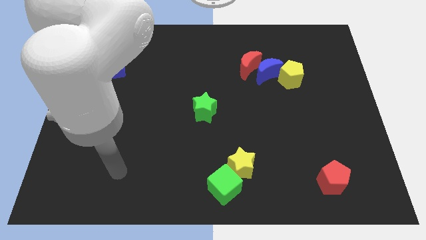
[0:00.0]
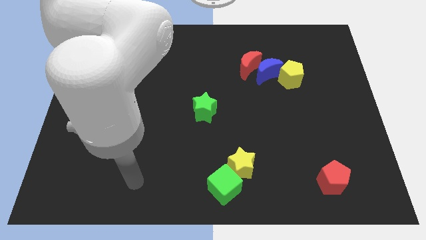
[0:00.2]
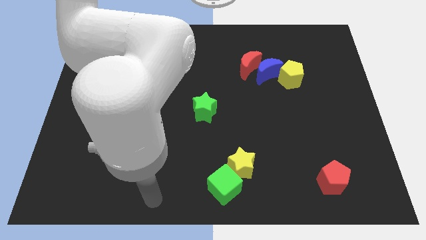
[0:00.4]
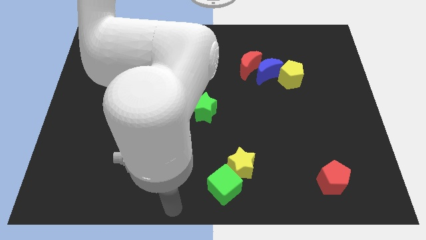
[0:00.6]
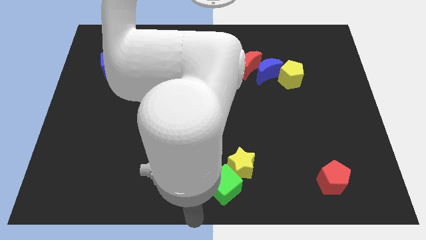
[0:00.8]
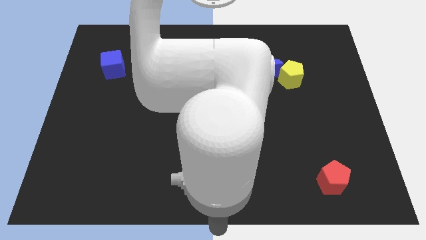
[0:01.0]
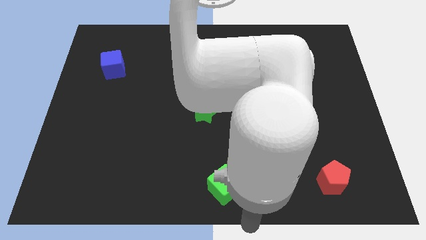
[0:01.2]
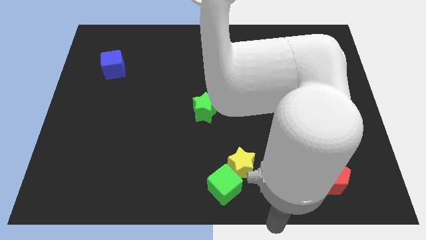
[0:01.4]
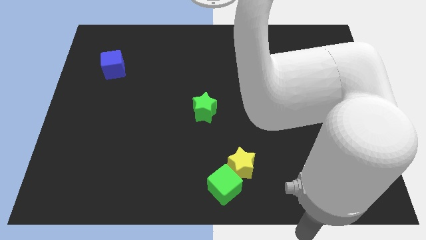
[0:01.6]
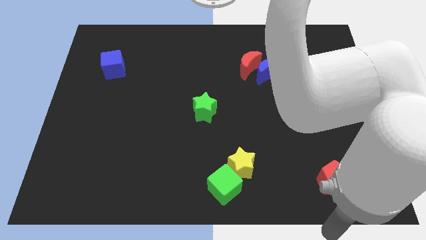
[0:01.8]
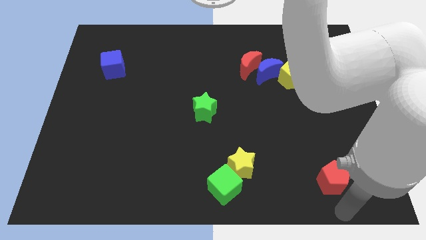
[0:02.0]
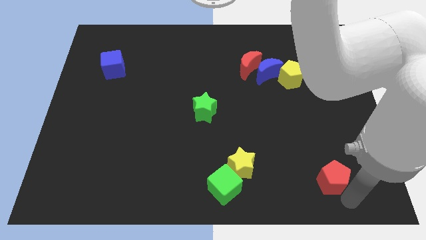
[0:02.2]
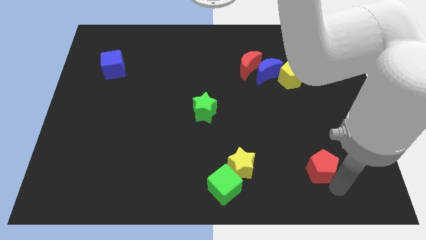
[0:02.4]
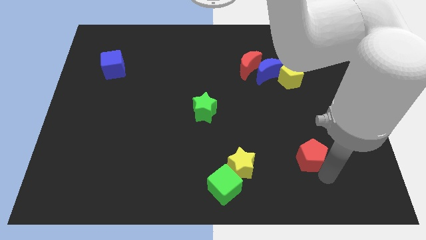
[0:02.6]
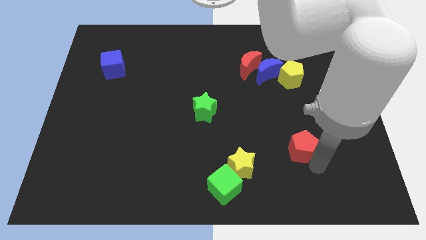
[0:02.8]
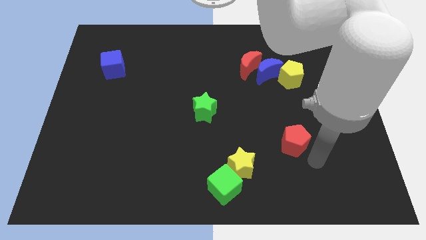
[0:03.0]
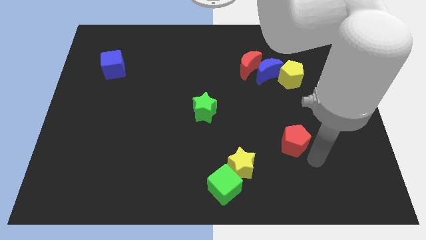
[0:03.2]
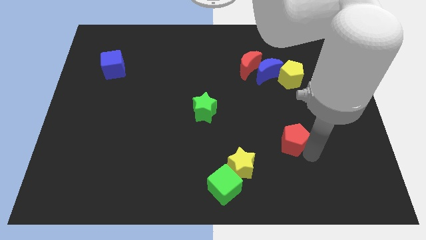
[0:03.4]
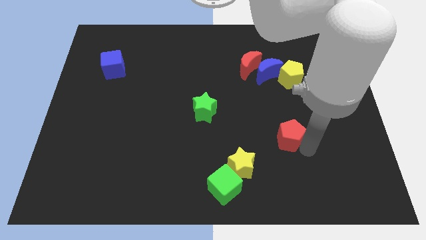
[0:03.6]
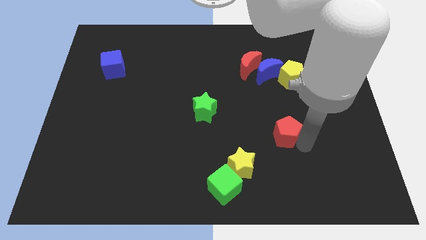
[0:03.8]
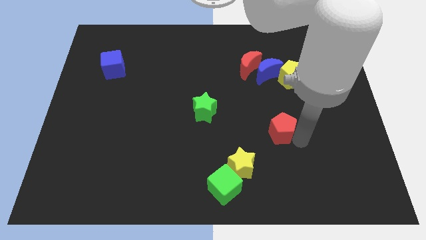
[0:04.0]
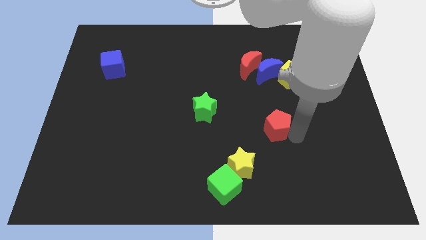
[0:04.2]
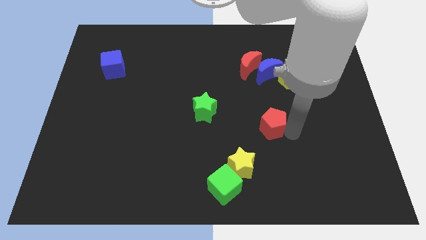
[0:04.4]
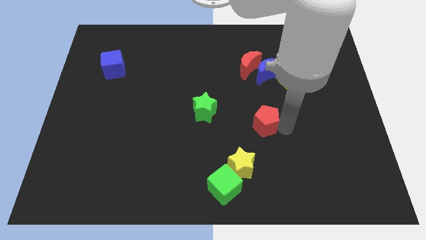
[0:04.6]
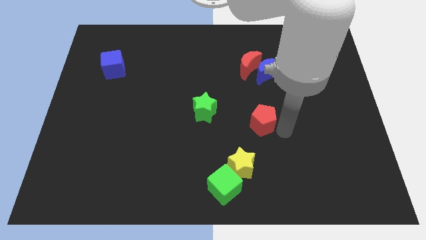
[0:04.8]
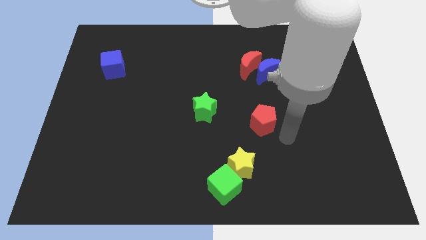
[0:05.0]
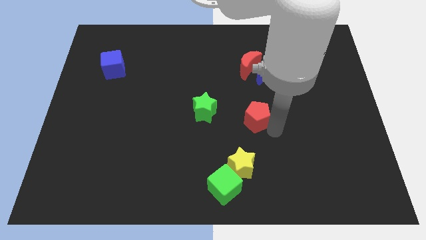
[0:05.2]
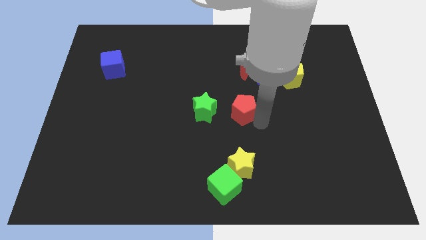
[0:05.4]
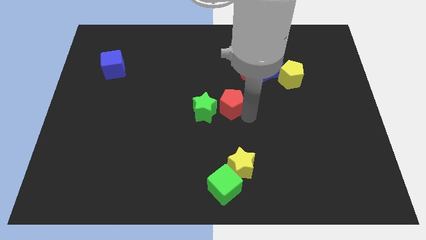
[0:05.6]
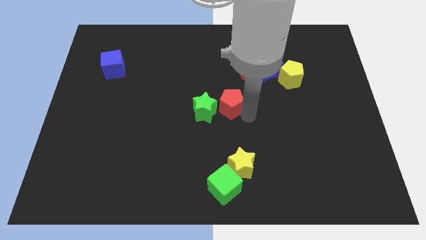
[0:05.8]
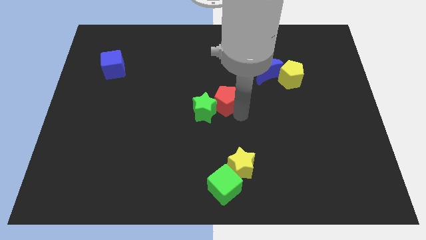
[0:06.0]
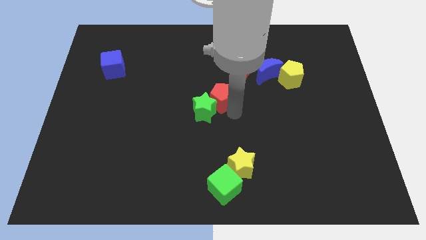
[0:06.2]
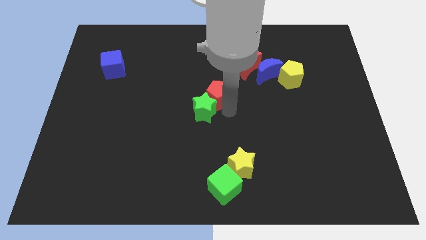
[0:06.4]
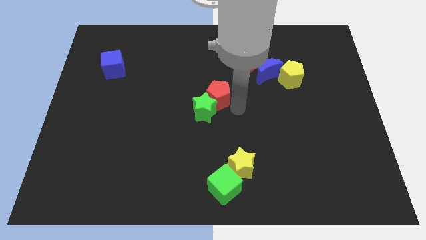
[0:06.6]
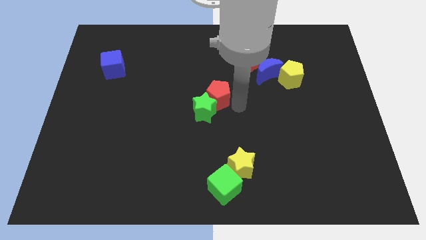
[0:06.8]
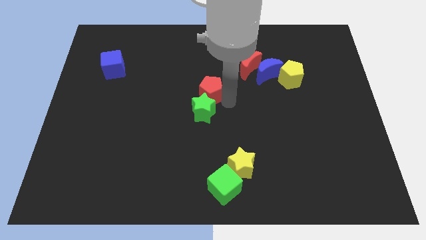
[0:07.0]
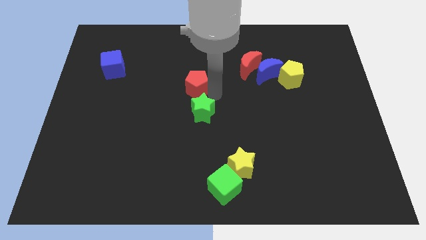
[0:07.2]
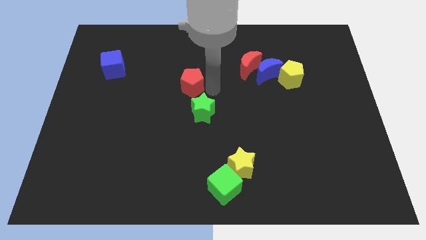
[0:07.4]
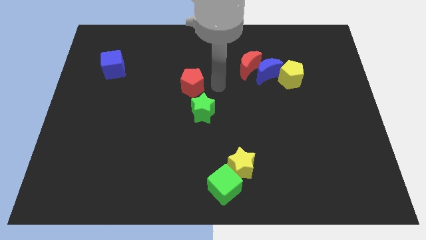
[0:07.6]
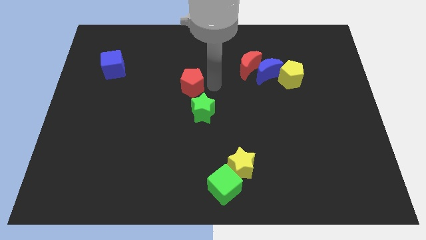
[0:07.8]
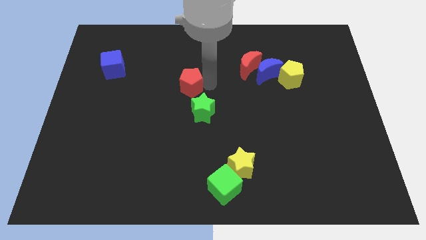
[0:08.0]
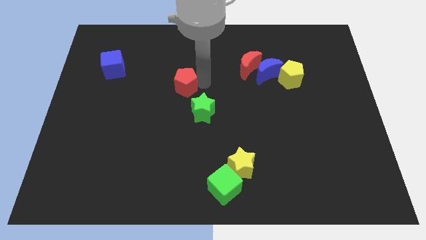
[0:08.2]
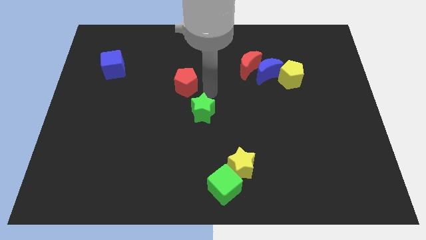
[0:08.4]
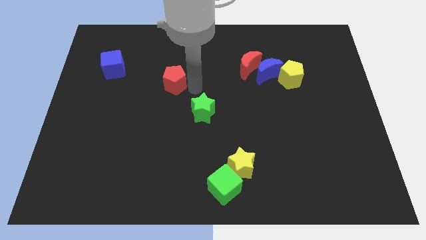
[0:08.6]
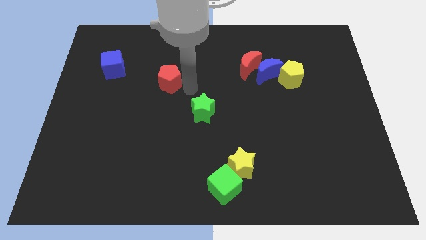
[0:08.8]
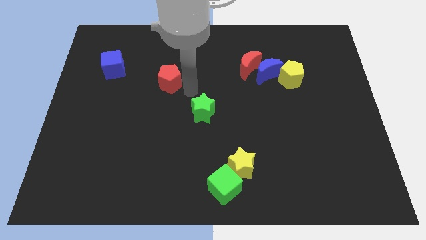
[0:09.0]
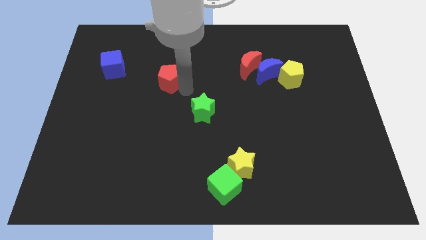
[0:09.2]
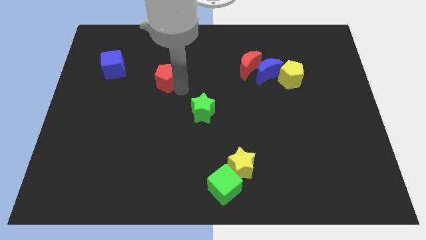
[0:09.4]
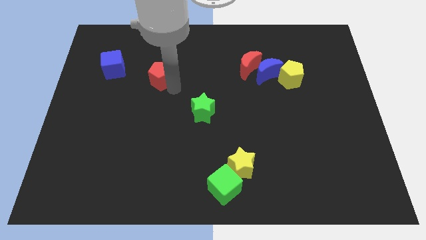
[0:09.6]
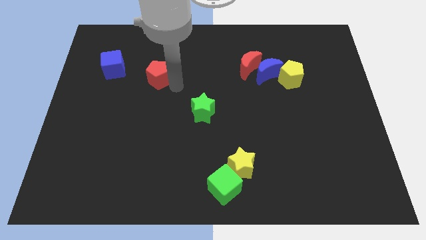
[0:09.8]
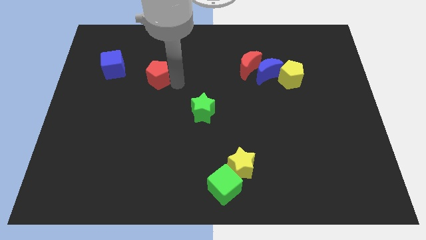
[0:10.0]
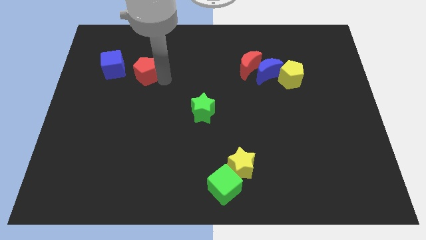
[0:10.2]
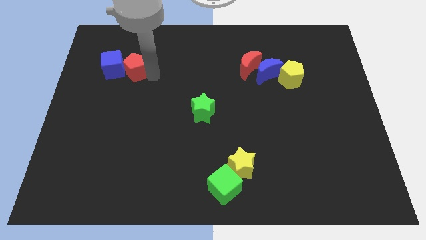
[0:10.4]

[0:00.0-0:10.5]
move the red pentagon next to the blue cube

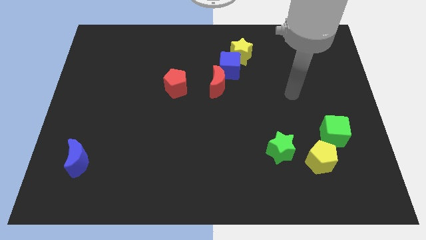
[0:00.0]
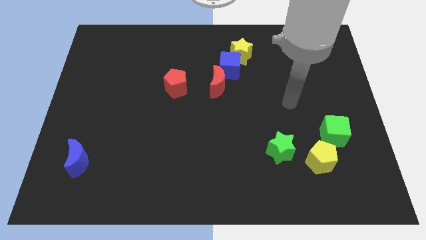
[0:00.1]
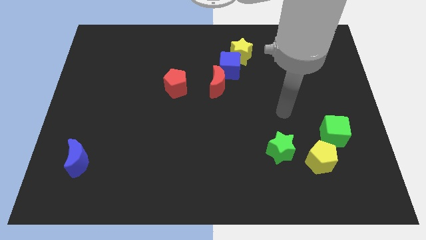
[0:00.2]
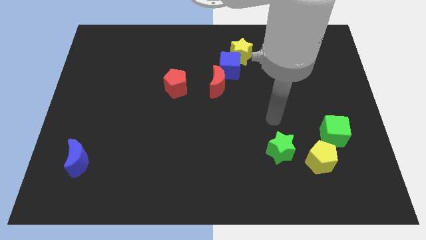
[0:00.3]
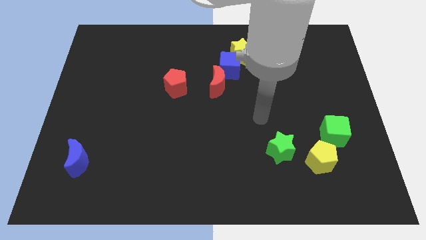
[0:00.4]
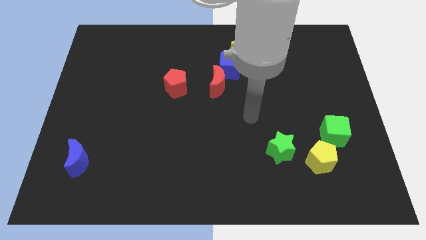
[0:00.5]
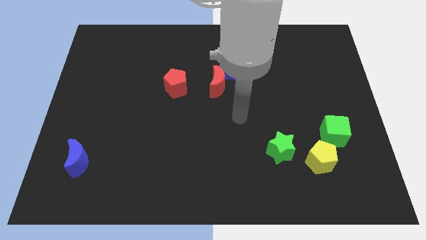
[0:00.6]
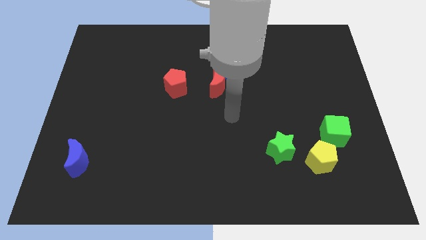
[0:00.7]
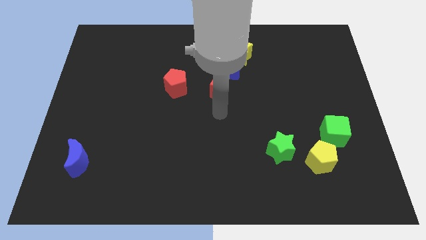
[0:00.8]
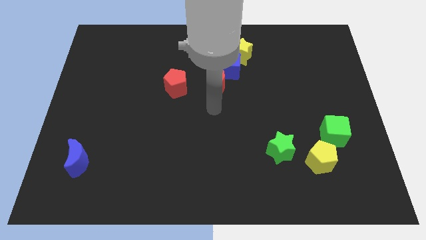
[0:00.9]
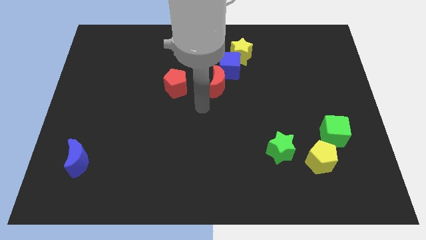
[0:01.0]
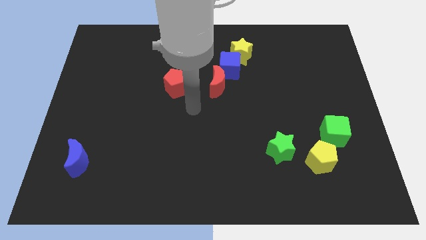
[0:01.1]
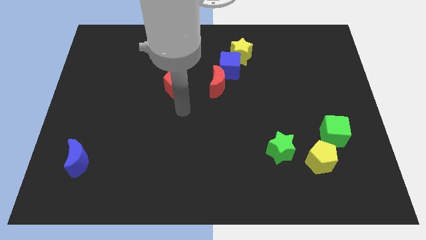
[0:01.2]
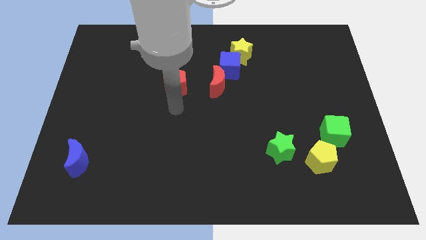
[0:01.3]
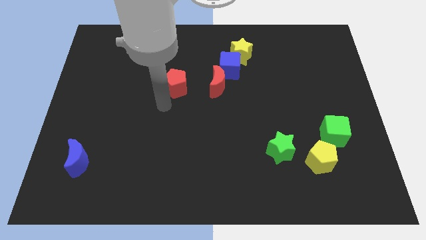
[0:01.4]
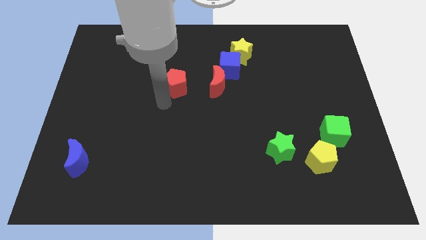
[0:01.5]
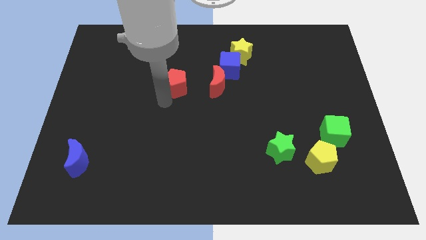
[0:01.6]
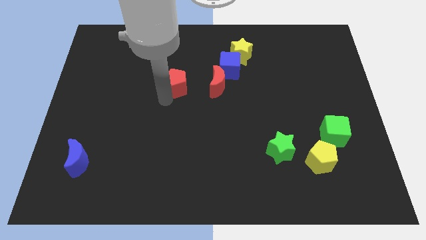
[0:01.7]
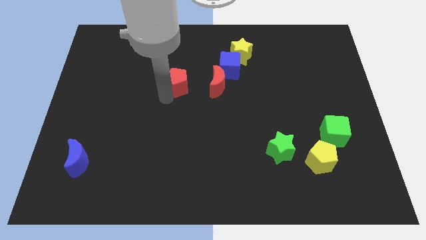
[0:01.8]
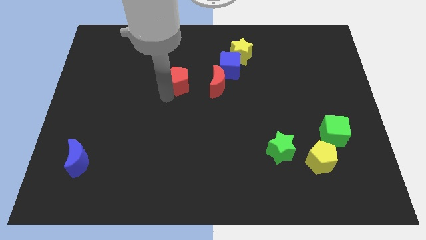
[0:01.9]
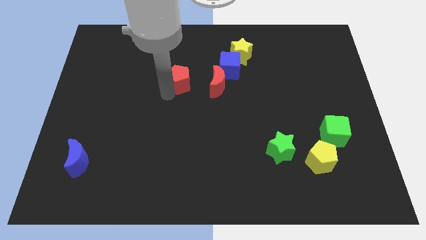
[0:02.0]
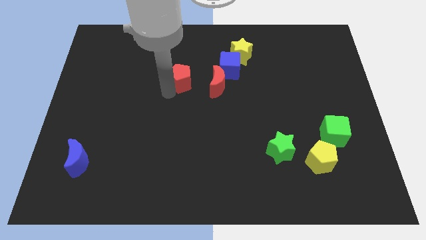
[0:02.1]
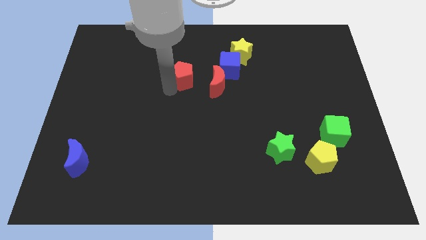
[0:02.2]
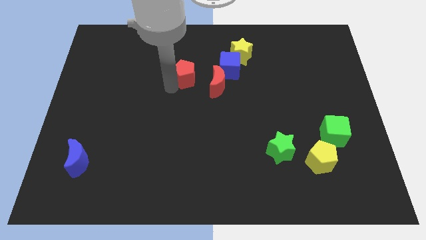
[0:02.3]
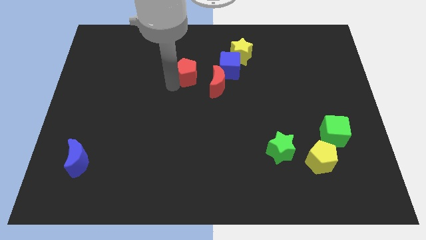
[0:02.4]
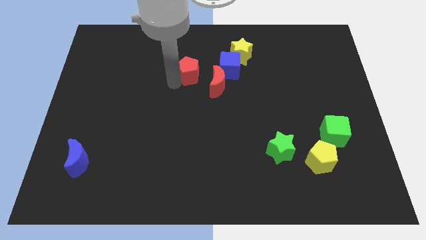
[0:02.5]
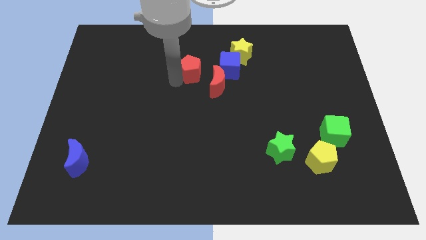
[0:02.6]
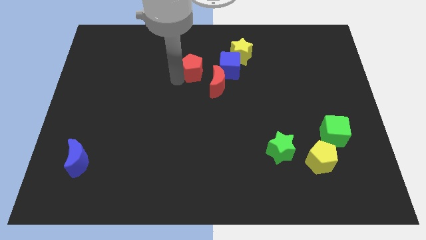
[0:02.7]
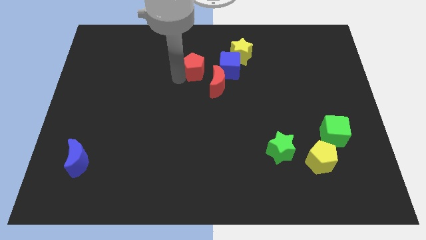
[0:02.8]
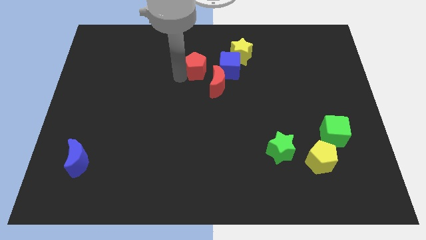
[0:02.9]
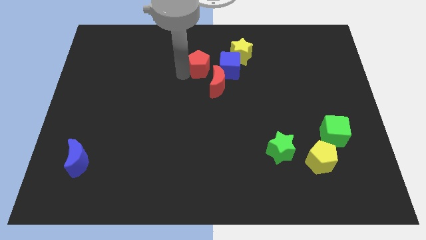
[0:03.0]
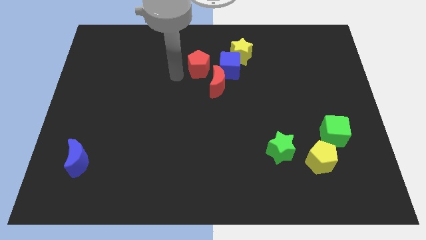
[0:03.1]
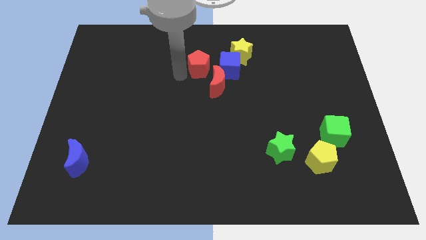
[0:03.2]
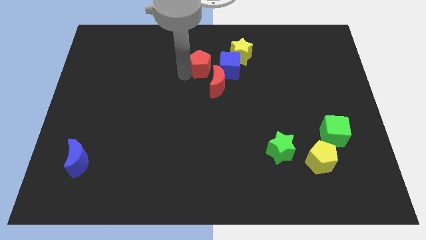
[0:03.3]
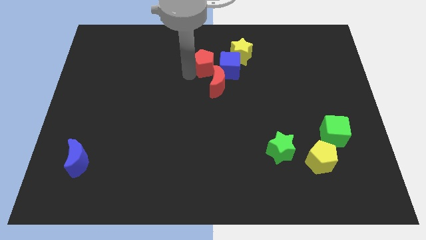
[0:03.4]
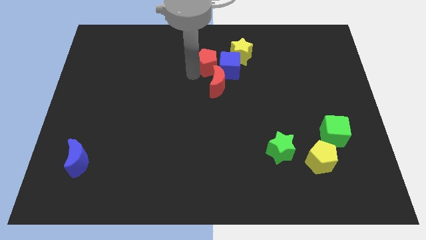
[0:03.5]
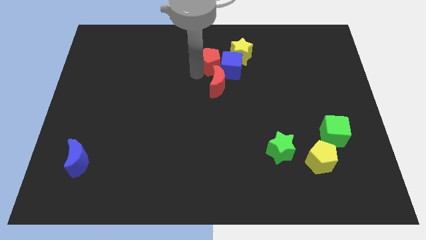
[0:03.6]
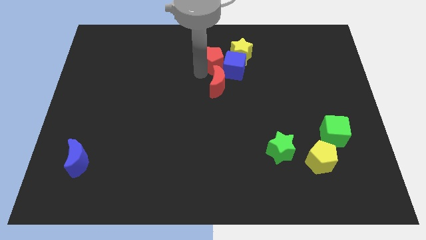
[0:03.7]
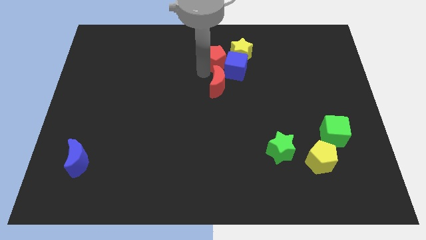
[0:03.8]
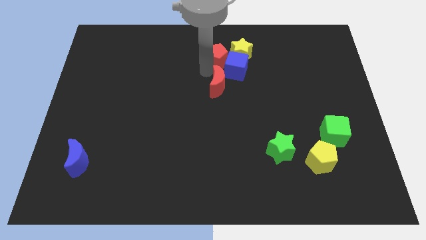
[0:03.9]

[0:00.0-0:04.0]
move the red pentagon next to the yellow star
